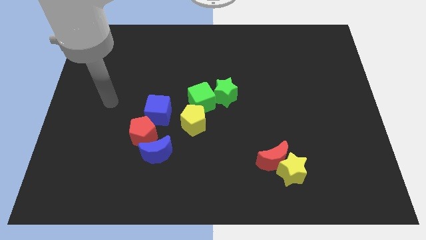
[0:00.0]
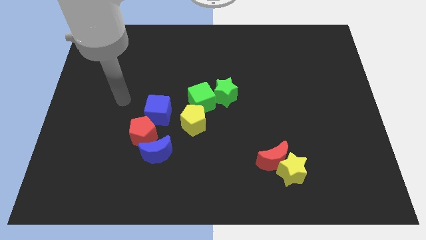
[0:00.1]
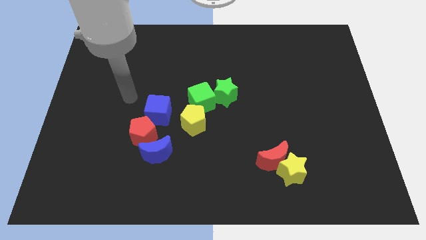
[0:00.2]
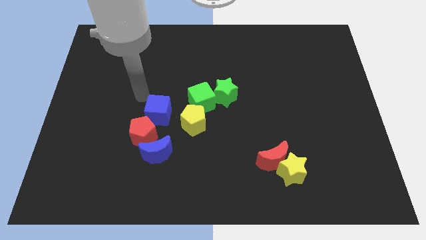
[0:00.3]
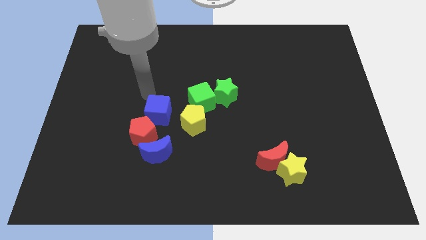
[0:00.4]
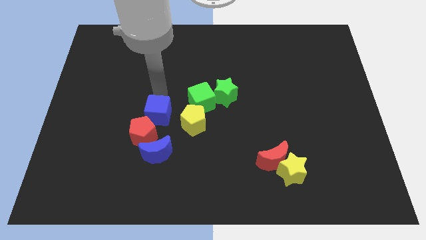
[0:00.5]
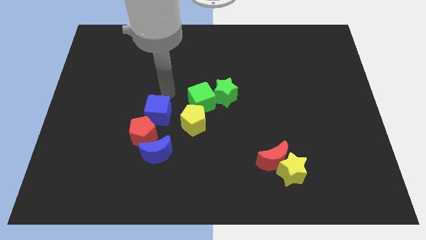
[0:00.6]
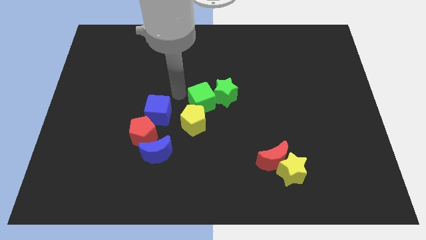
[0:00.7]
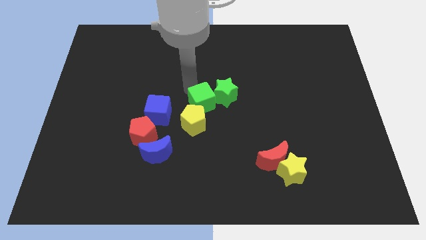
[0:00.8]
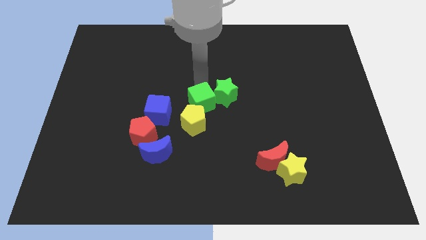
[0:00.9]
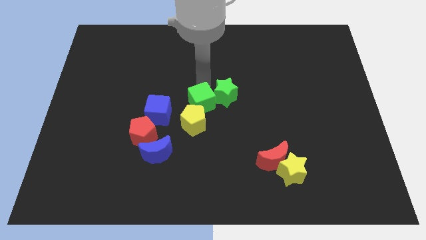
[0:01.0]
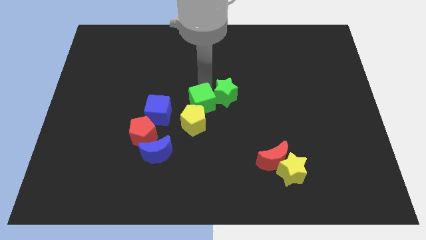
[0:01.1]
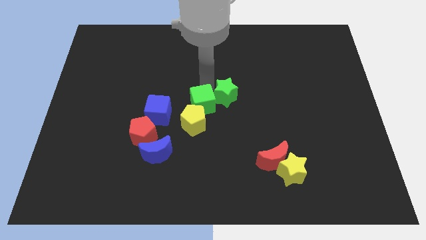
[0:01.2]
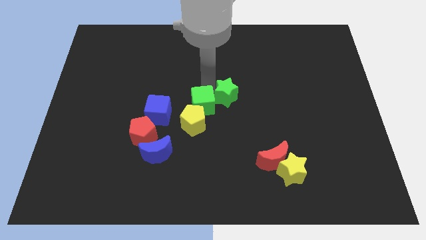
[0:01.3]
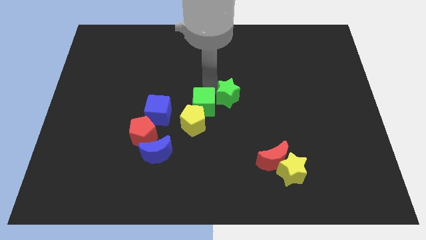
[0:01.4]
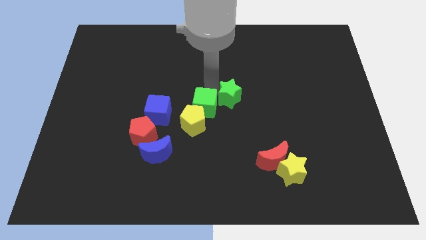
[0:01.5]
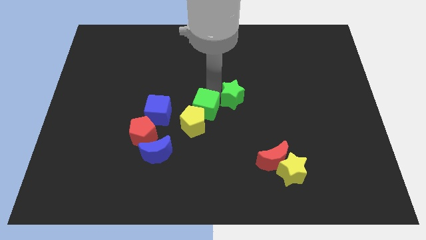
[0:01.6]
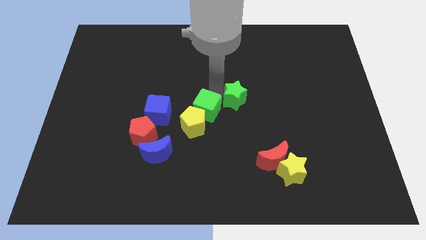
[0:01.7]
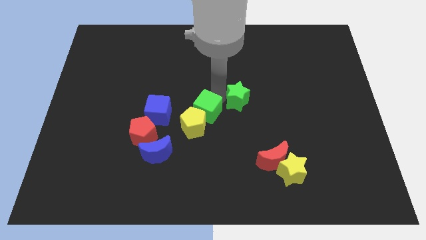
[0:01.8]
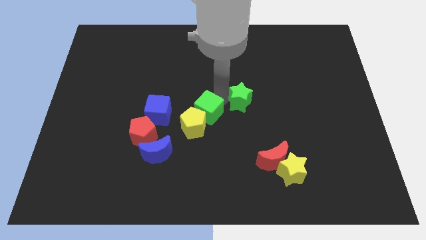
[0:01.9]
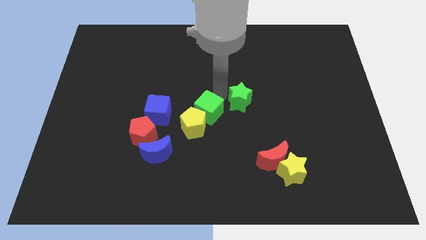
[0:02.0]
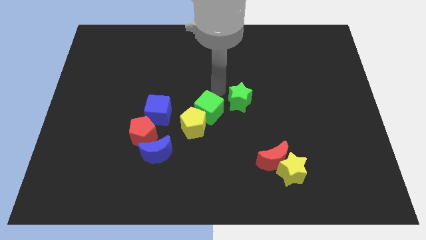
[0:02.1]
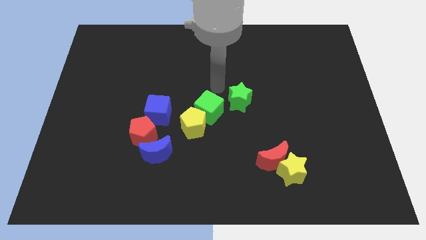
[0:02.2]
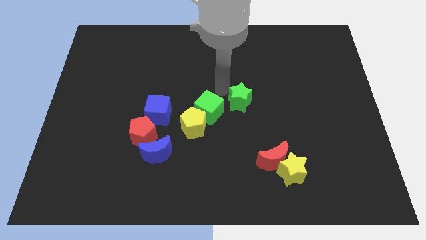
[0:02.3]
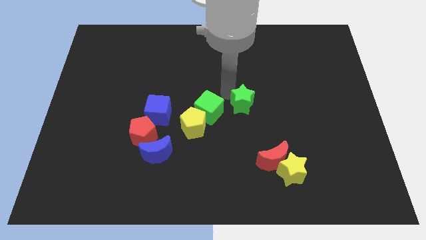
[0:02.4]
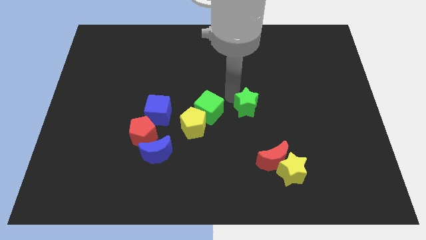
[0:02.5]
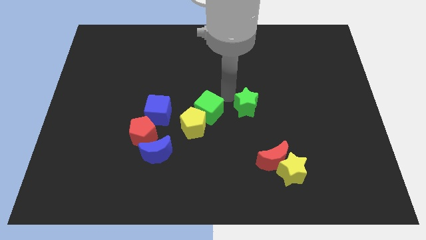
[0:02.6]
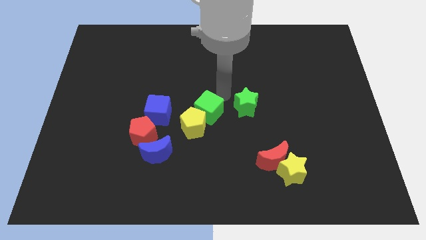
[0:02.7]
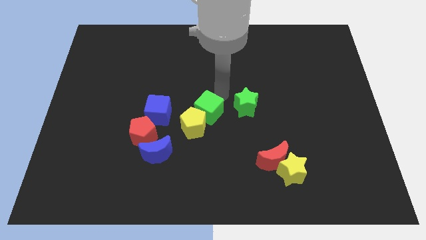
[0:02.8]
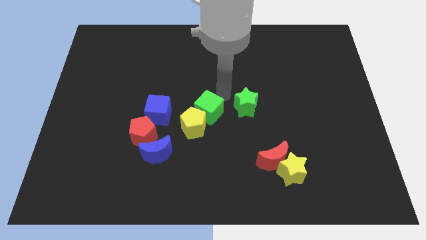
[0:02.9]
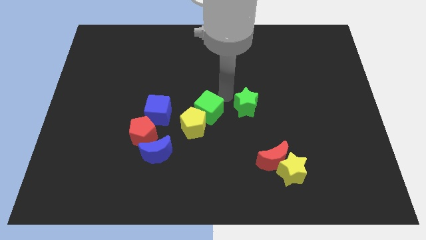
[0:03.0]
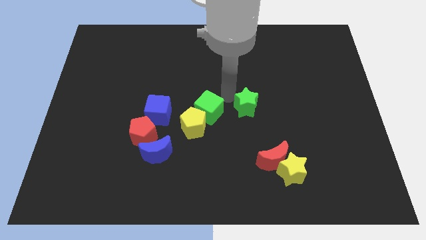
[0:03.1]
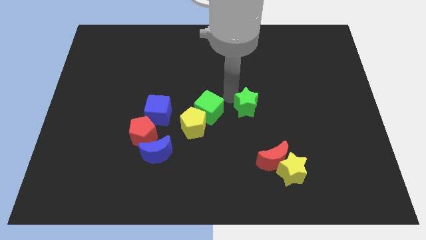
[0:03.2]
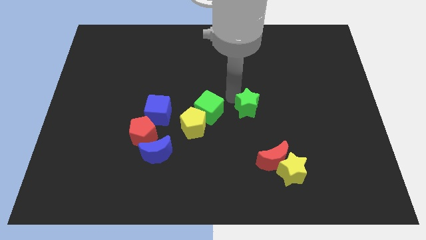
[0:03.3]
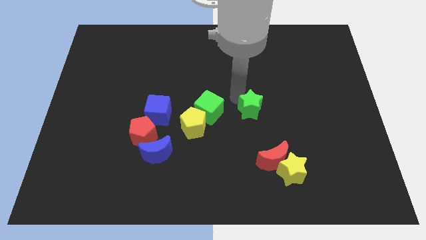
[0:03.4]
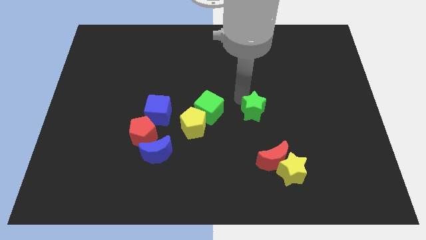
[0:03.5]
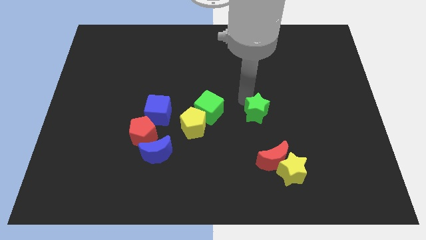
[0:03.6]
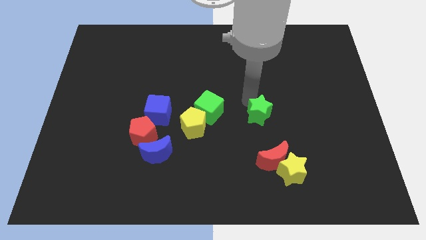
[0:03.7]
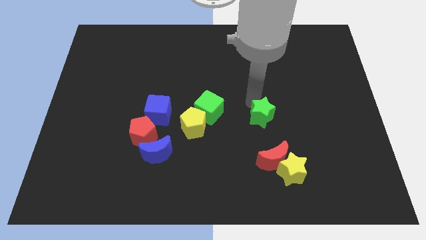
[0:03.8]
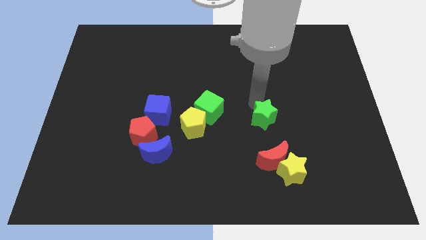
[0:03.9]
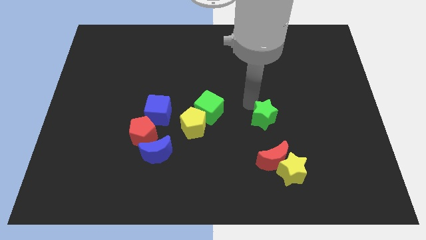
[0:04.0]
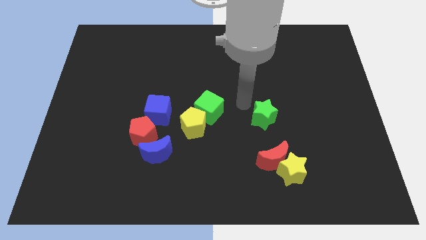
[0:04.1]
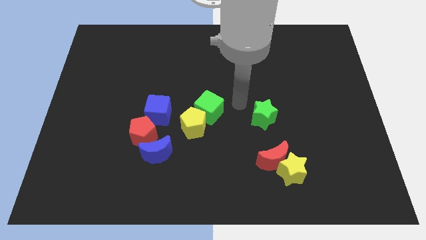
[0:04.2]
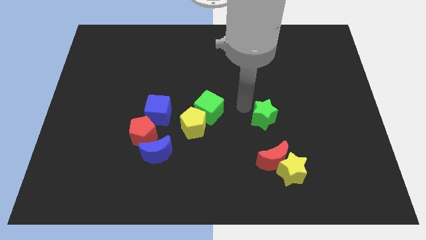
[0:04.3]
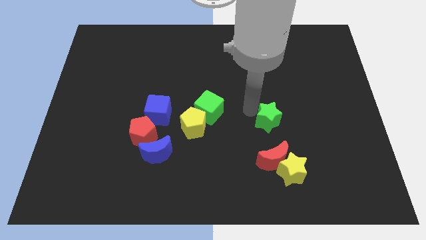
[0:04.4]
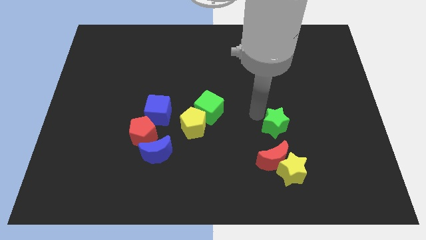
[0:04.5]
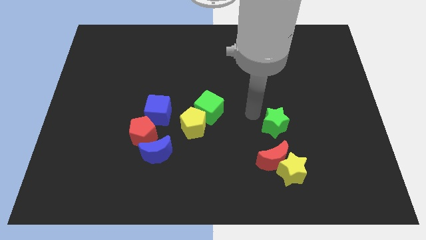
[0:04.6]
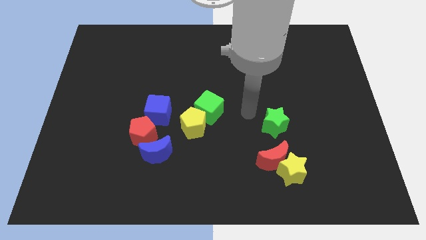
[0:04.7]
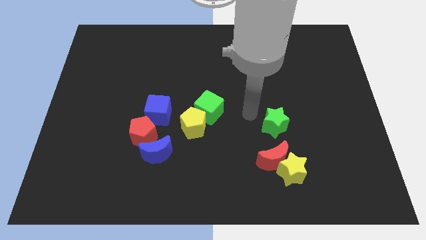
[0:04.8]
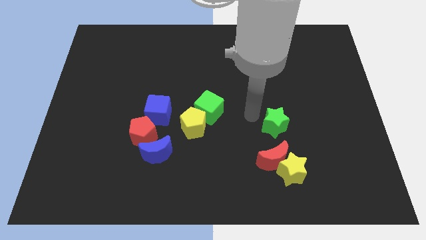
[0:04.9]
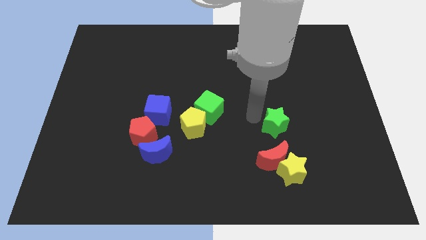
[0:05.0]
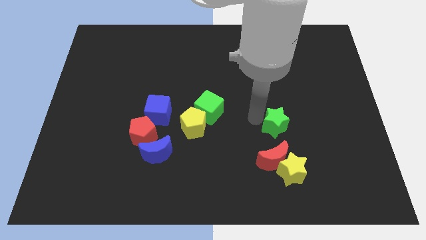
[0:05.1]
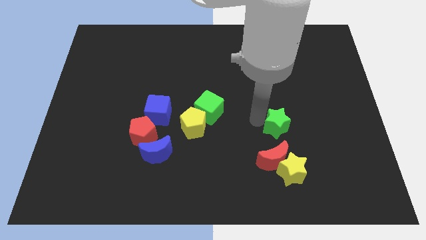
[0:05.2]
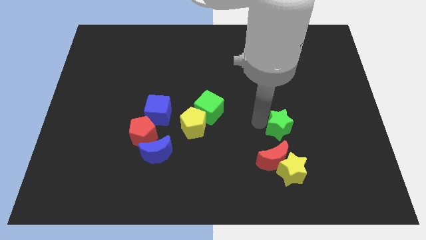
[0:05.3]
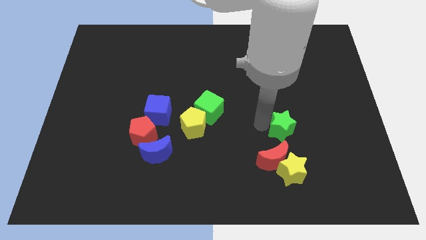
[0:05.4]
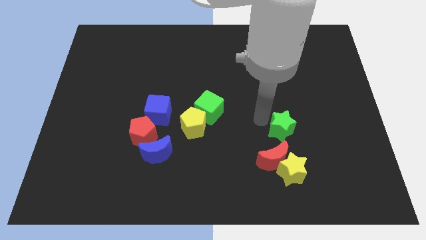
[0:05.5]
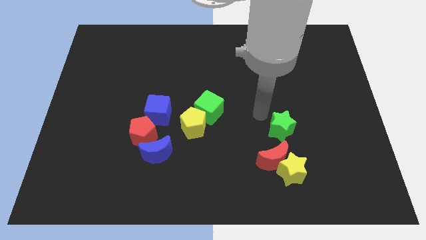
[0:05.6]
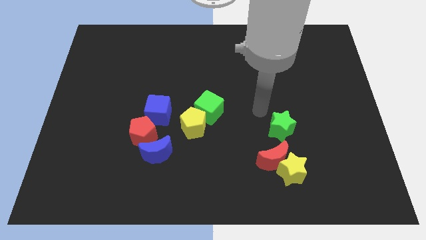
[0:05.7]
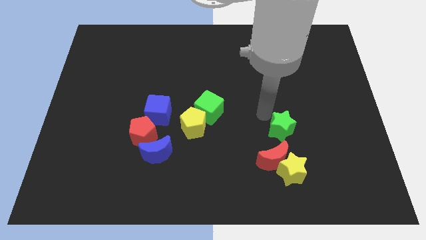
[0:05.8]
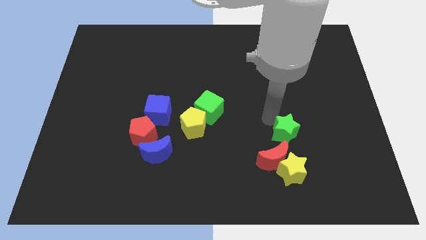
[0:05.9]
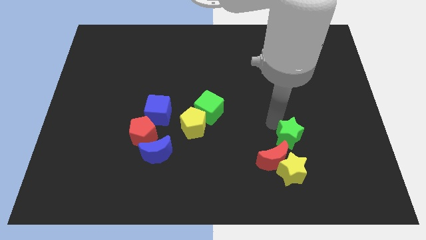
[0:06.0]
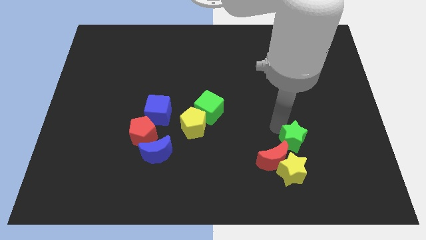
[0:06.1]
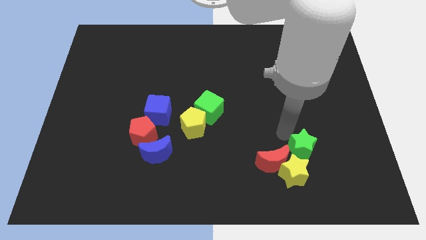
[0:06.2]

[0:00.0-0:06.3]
move the green star downwards and then to the right

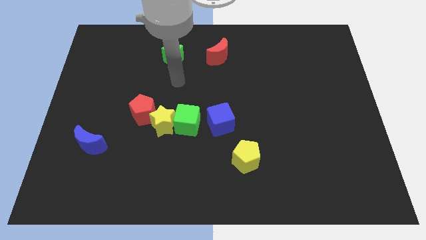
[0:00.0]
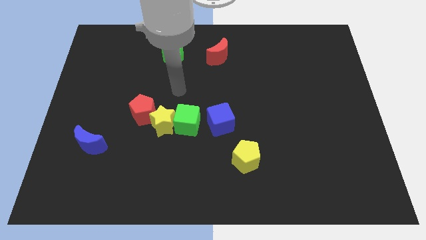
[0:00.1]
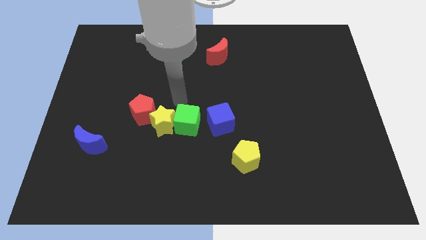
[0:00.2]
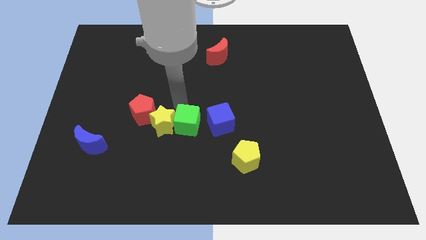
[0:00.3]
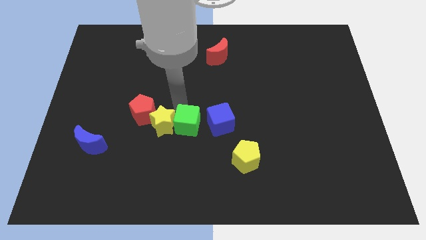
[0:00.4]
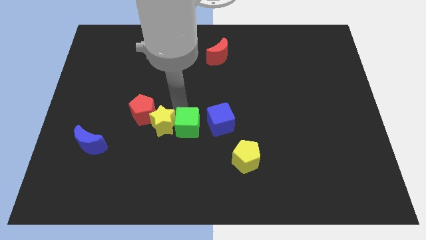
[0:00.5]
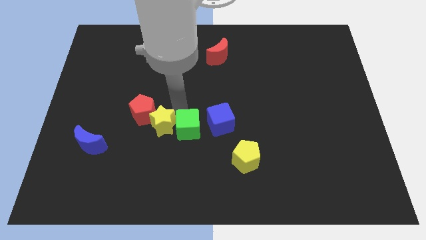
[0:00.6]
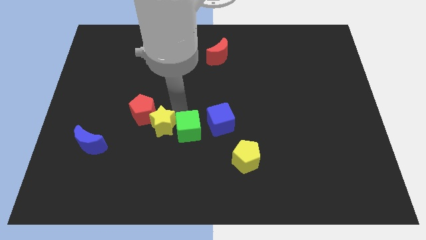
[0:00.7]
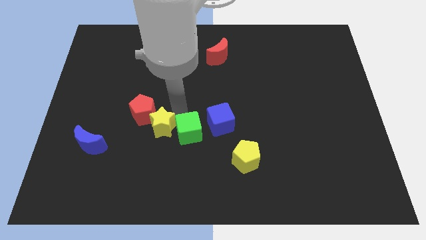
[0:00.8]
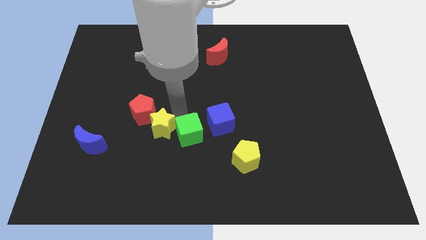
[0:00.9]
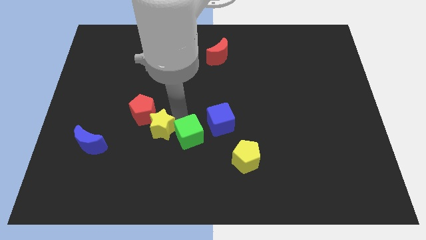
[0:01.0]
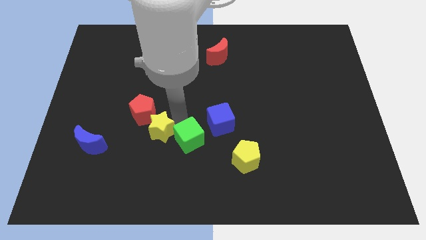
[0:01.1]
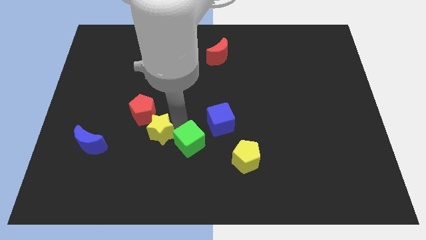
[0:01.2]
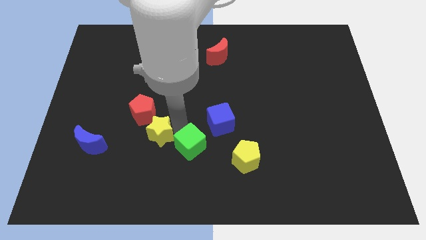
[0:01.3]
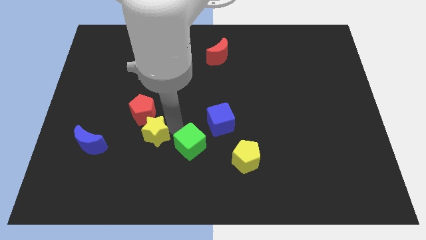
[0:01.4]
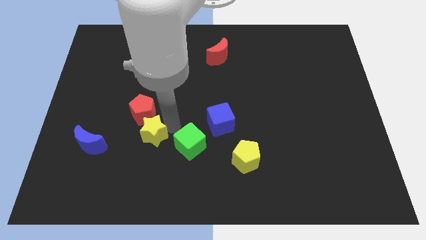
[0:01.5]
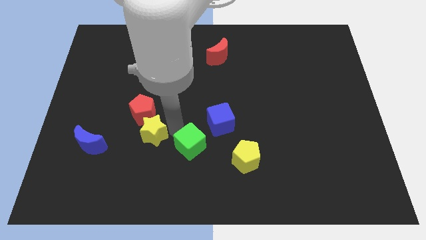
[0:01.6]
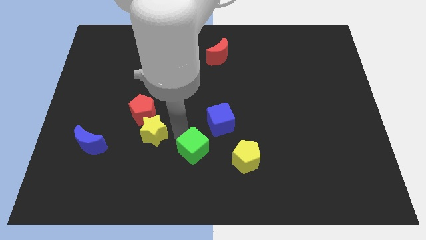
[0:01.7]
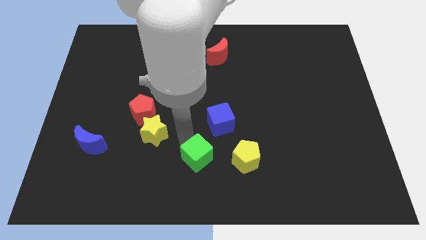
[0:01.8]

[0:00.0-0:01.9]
slightly push the green cube downwards and right diagonally
